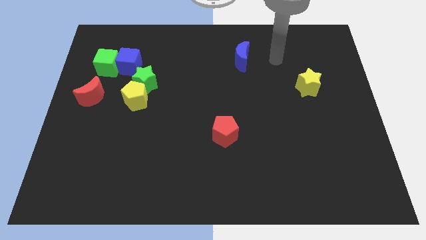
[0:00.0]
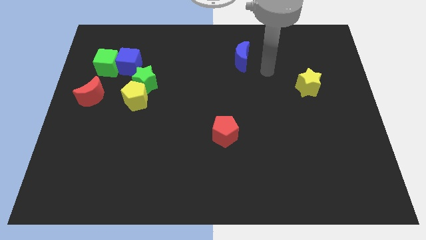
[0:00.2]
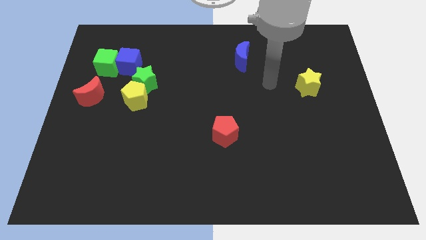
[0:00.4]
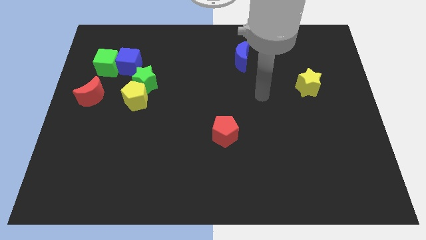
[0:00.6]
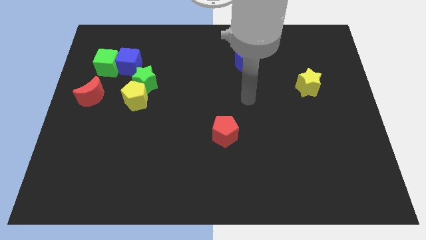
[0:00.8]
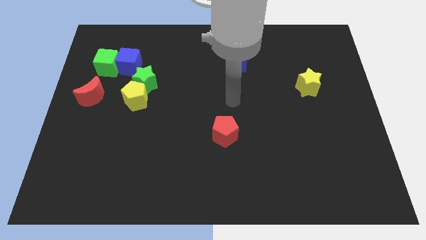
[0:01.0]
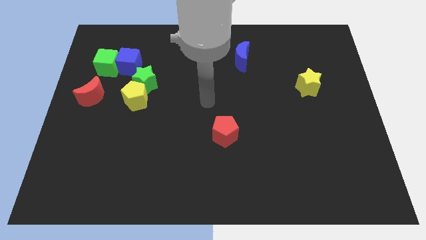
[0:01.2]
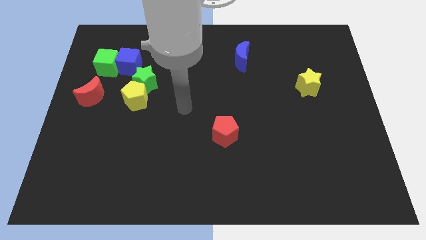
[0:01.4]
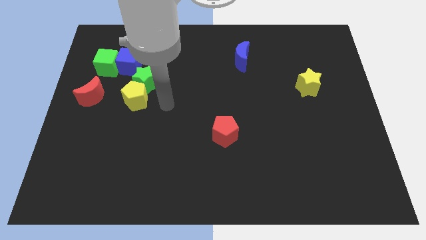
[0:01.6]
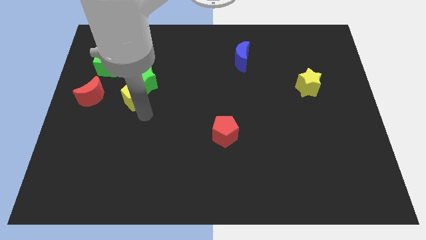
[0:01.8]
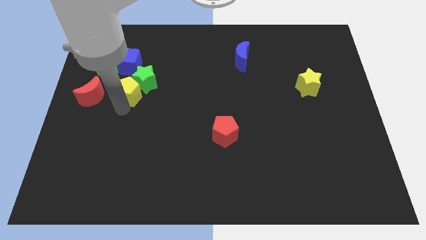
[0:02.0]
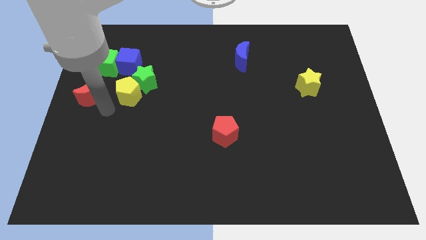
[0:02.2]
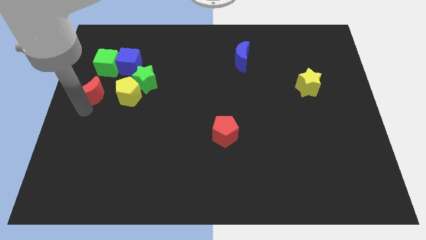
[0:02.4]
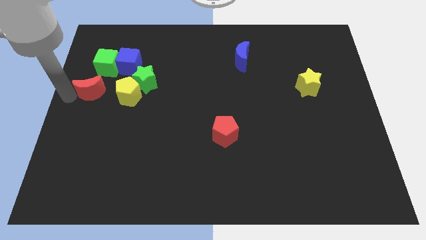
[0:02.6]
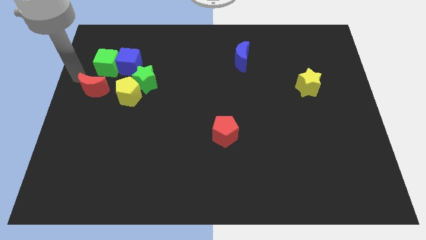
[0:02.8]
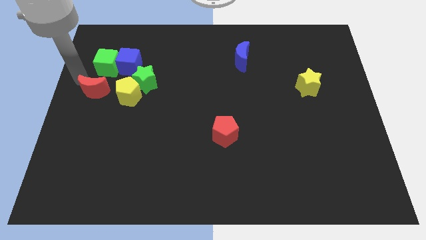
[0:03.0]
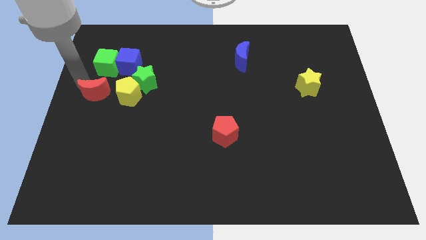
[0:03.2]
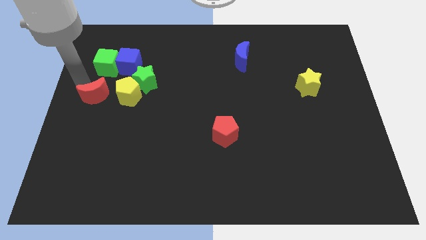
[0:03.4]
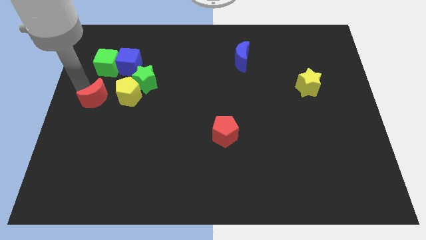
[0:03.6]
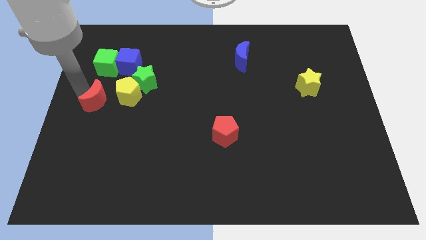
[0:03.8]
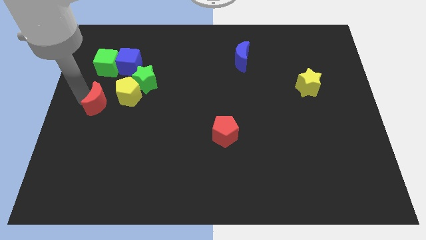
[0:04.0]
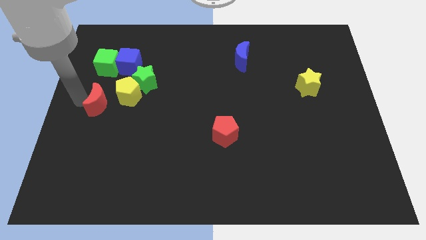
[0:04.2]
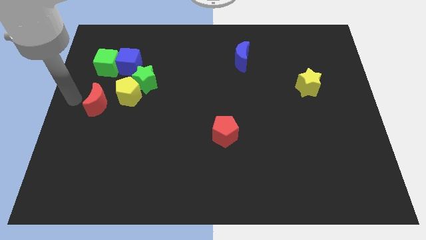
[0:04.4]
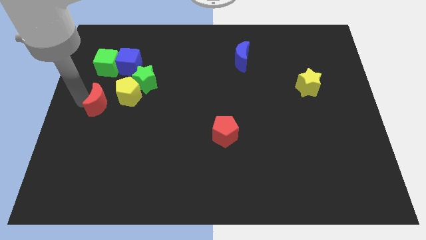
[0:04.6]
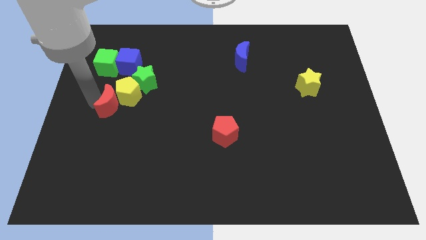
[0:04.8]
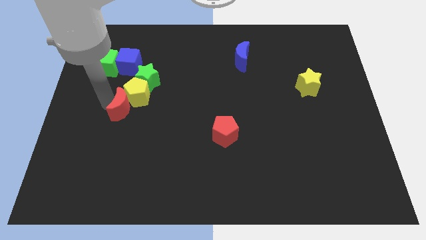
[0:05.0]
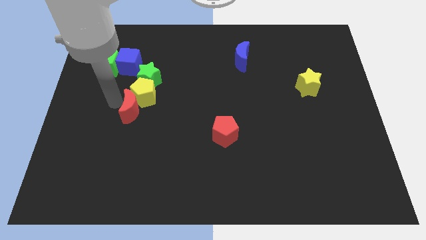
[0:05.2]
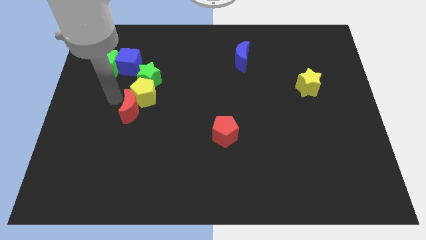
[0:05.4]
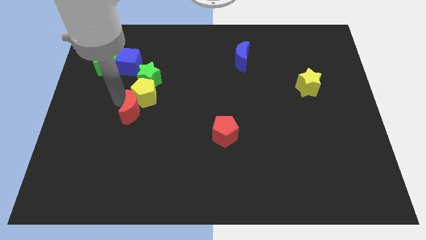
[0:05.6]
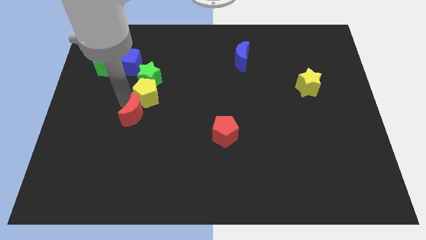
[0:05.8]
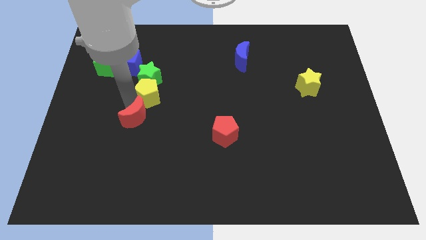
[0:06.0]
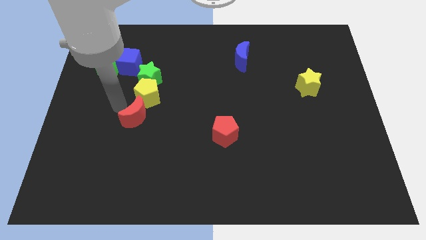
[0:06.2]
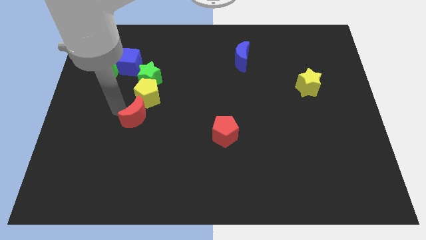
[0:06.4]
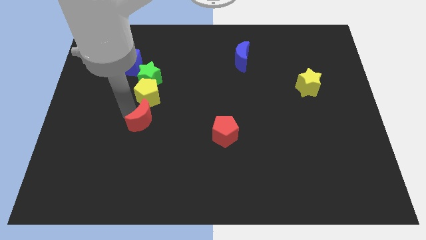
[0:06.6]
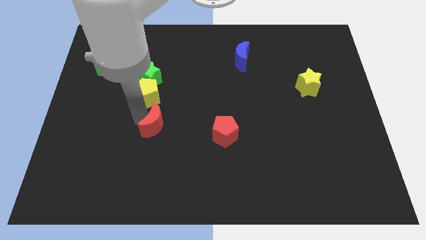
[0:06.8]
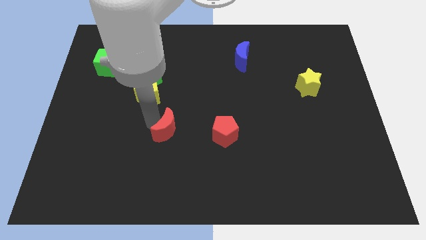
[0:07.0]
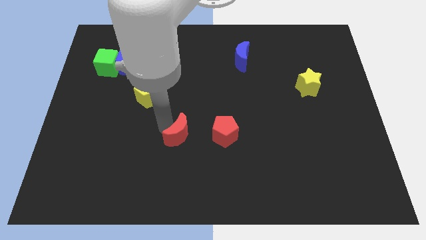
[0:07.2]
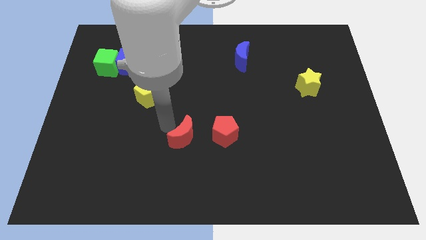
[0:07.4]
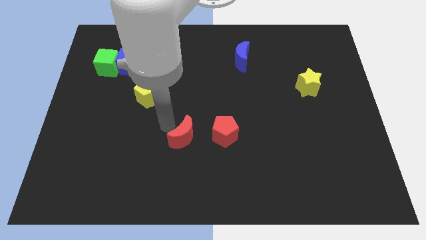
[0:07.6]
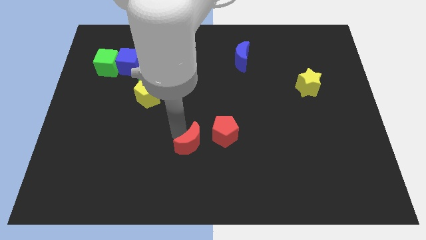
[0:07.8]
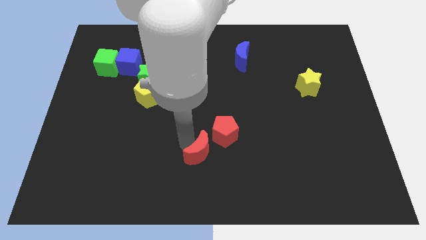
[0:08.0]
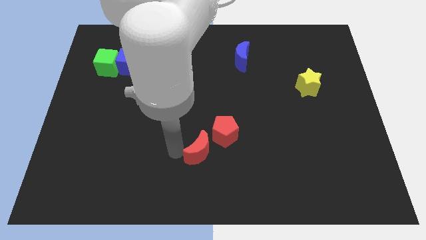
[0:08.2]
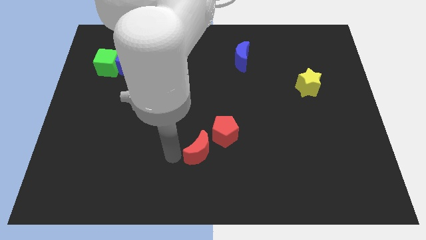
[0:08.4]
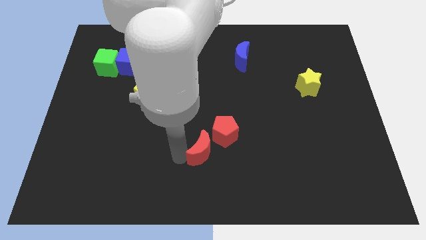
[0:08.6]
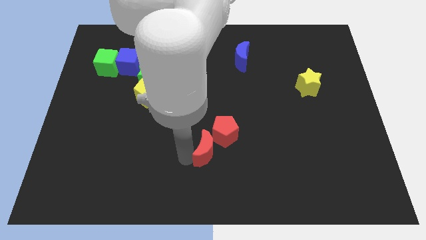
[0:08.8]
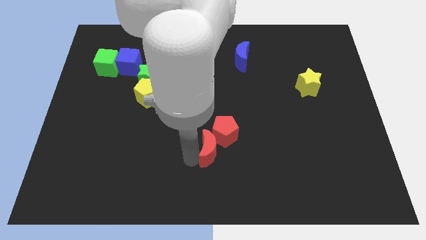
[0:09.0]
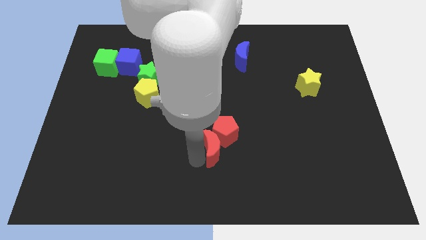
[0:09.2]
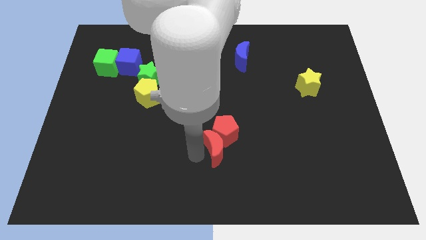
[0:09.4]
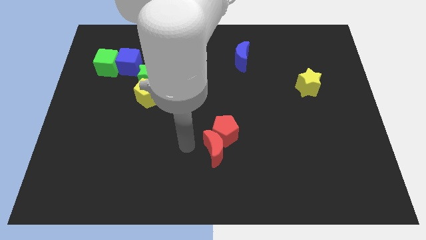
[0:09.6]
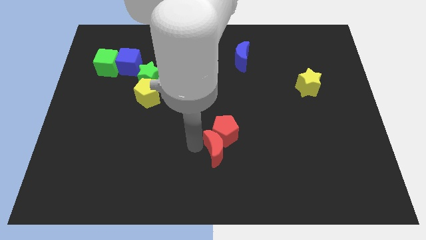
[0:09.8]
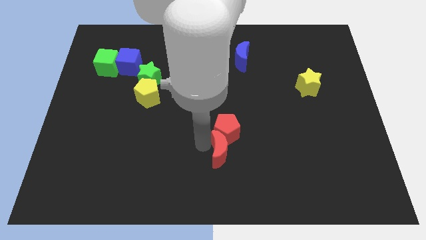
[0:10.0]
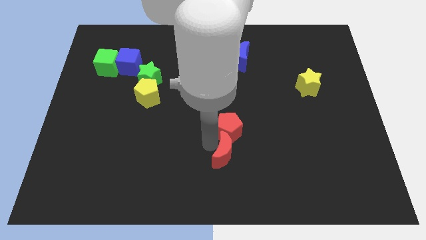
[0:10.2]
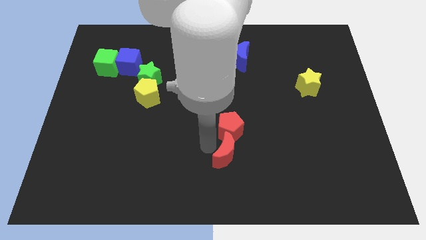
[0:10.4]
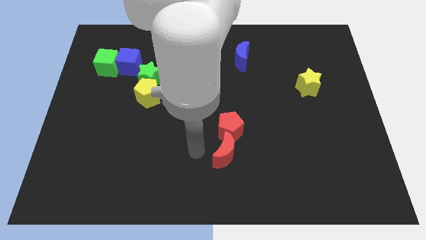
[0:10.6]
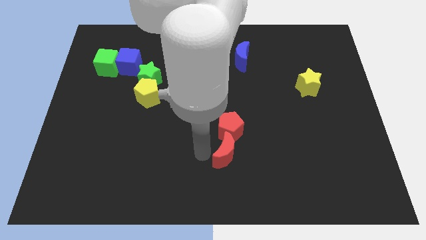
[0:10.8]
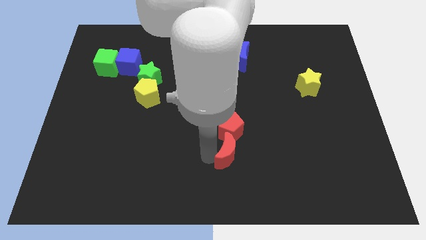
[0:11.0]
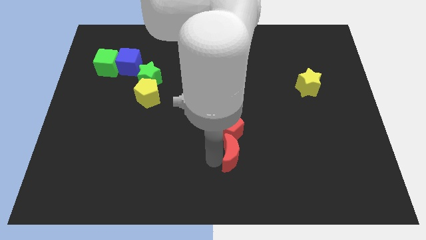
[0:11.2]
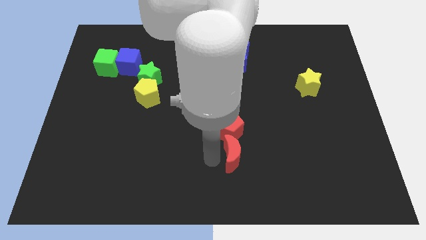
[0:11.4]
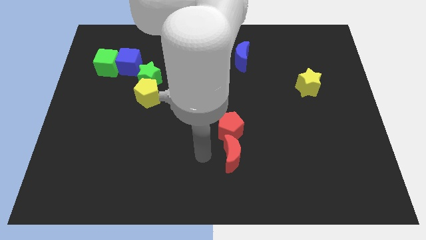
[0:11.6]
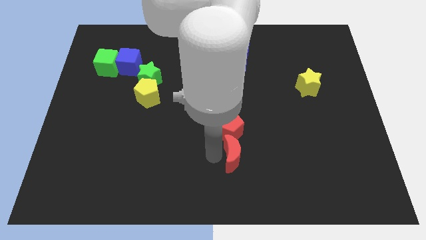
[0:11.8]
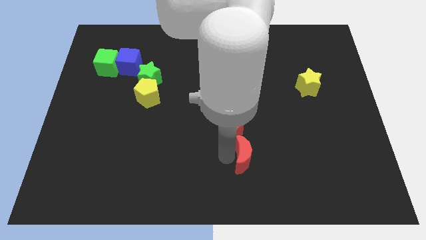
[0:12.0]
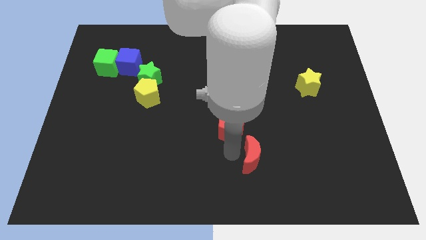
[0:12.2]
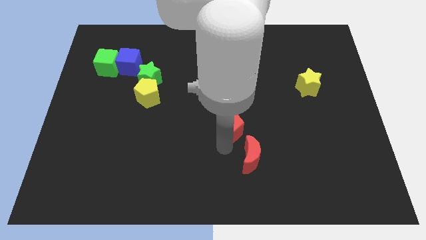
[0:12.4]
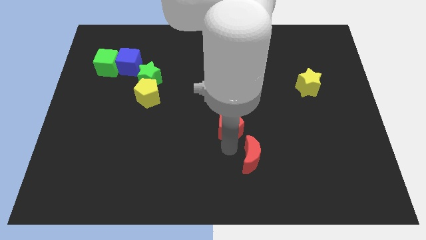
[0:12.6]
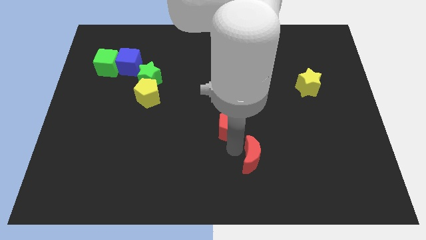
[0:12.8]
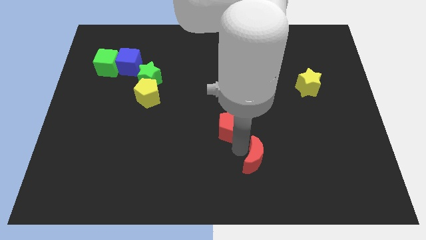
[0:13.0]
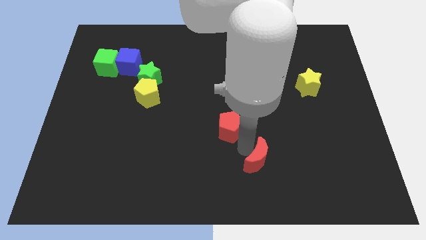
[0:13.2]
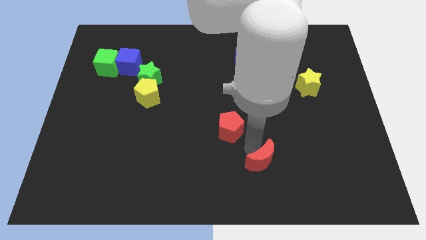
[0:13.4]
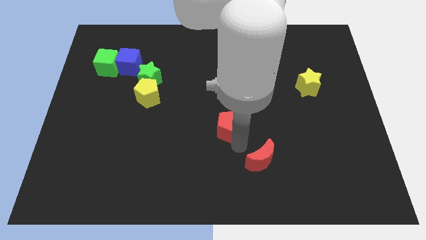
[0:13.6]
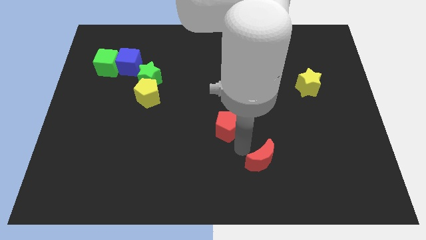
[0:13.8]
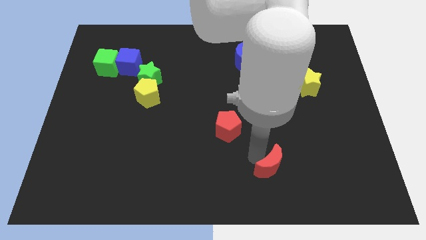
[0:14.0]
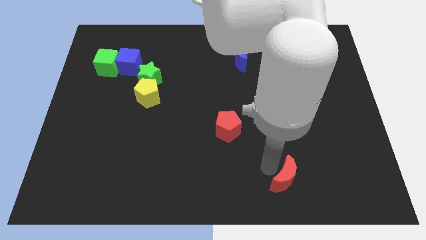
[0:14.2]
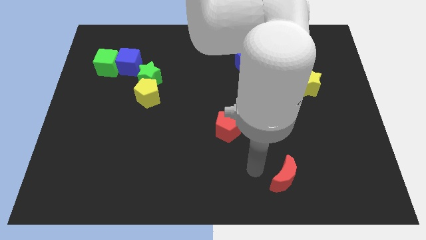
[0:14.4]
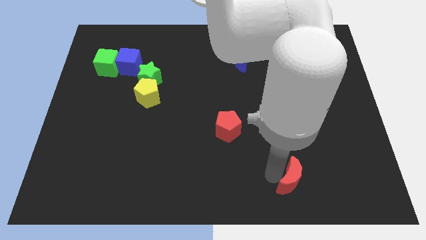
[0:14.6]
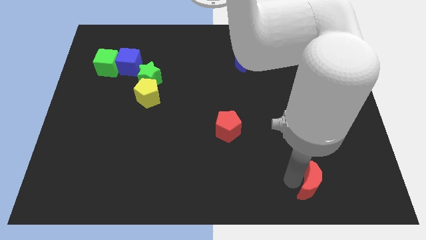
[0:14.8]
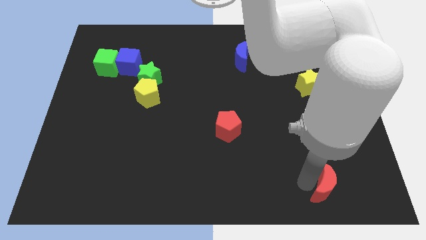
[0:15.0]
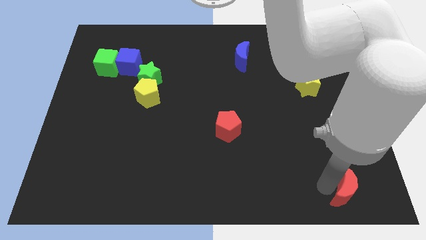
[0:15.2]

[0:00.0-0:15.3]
put the red moon to the bottom right of the board
